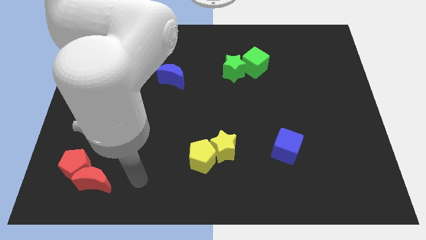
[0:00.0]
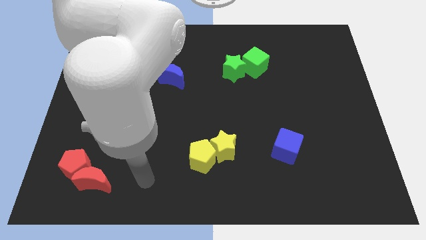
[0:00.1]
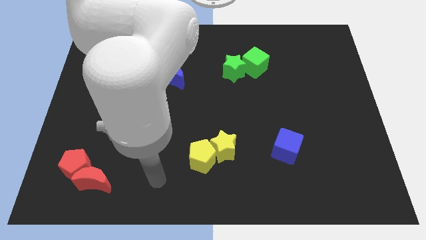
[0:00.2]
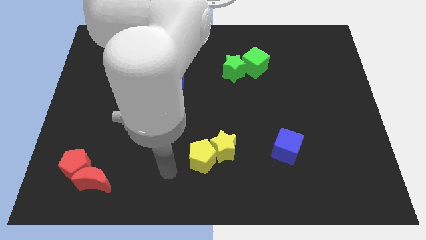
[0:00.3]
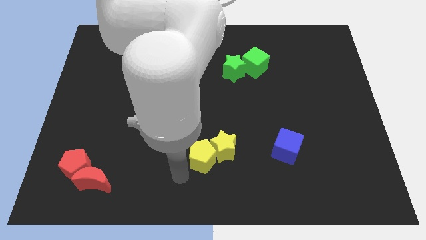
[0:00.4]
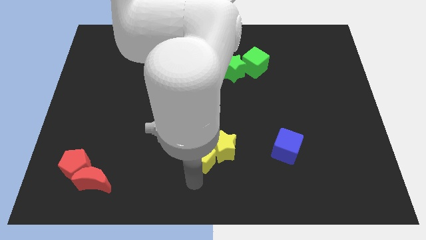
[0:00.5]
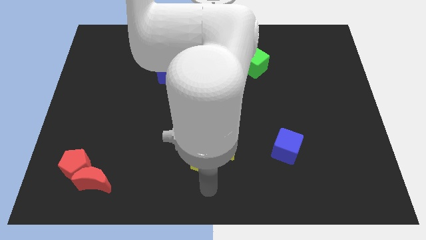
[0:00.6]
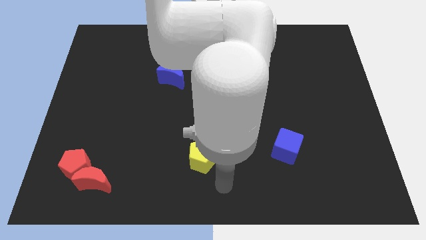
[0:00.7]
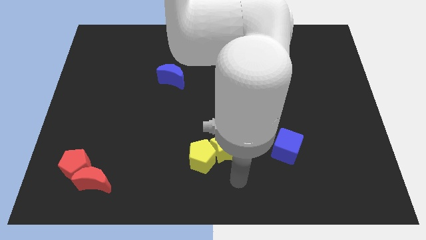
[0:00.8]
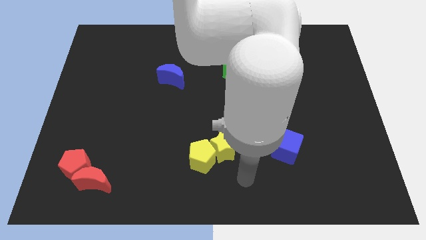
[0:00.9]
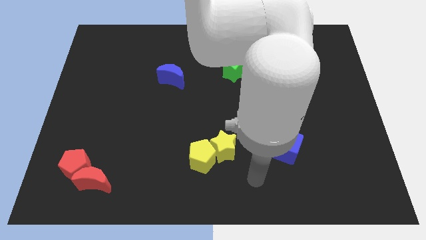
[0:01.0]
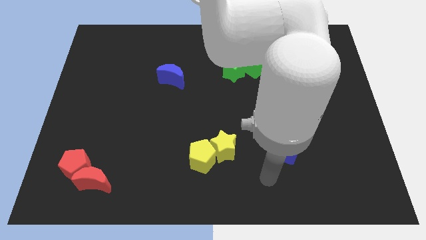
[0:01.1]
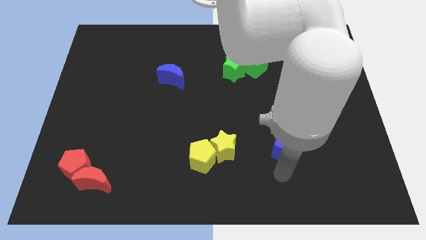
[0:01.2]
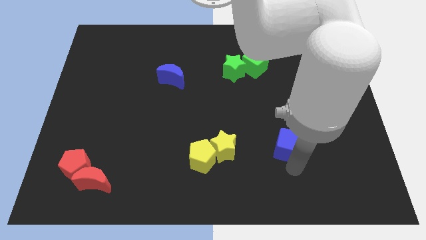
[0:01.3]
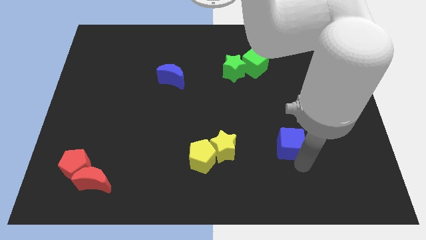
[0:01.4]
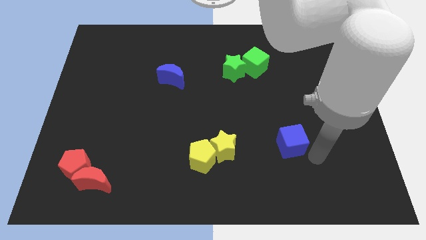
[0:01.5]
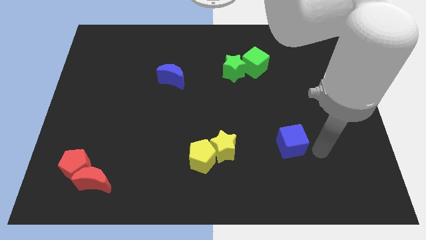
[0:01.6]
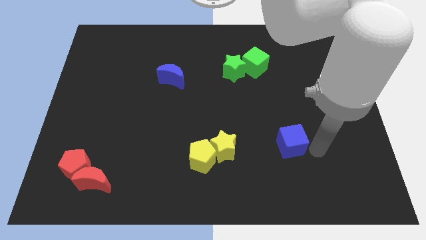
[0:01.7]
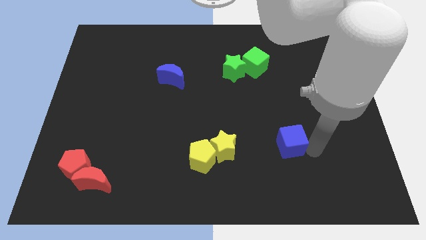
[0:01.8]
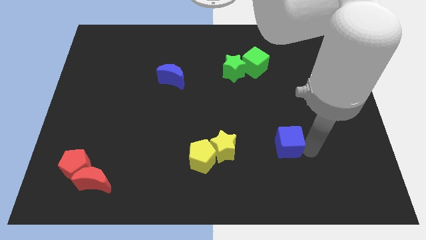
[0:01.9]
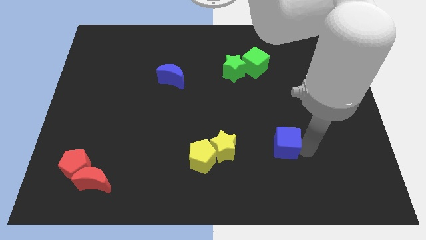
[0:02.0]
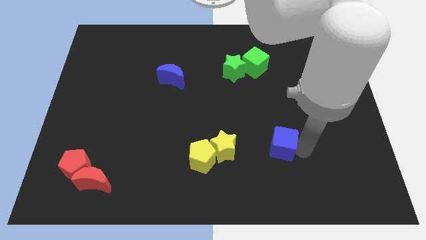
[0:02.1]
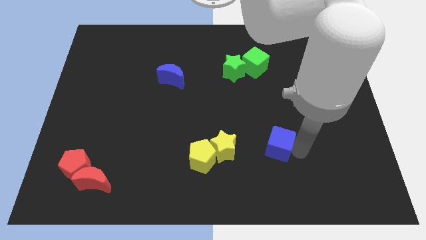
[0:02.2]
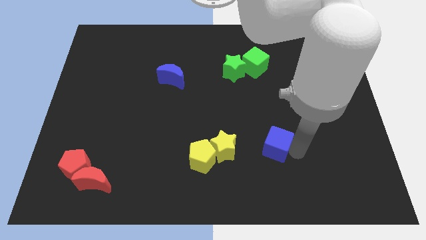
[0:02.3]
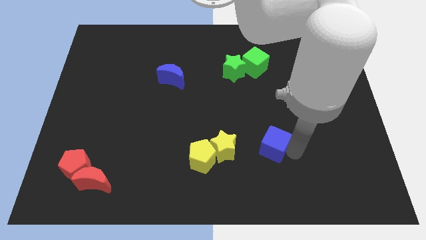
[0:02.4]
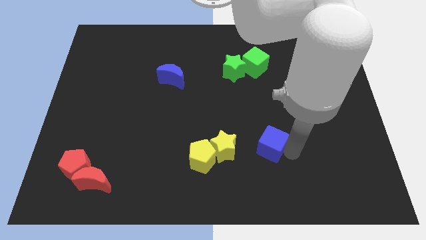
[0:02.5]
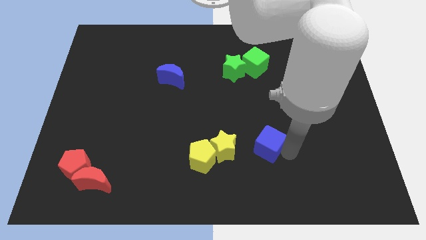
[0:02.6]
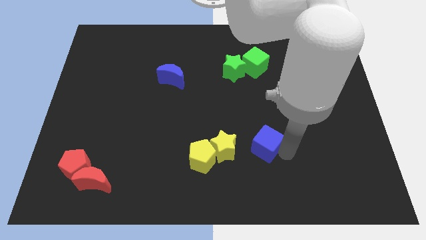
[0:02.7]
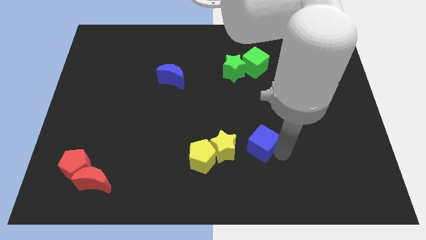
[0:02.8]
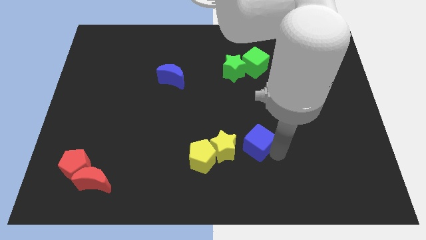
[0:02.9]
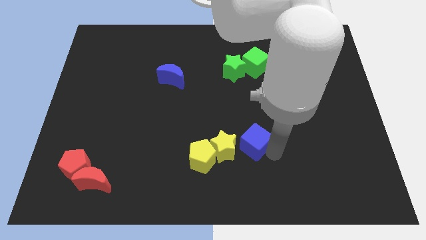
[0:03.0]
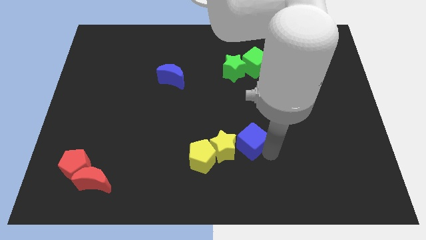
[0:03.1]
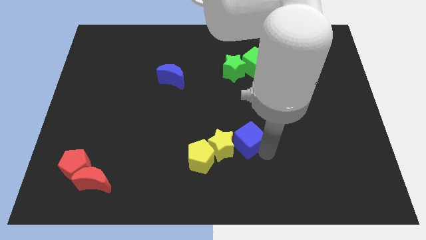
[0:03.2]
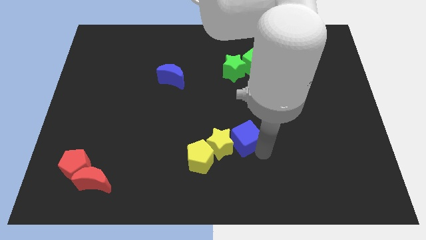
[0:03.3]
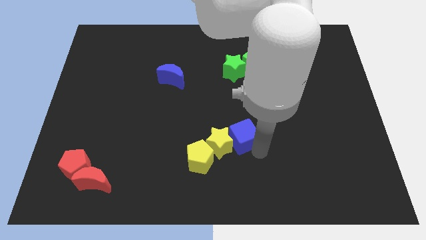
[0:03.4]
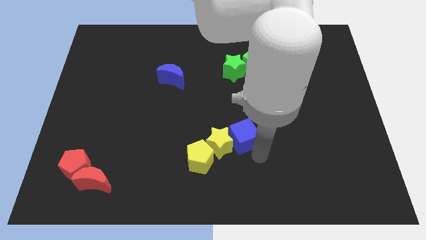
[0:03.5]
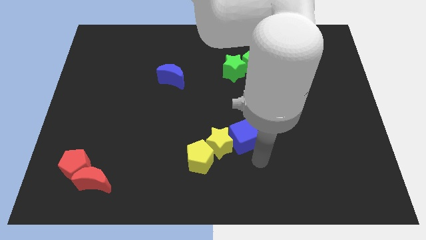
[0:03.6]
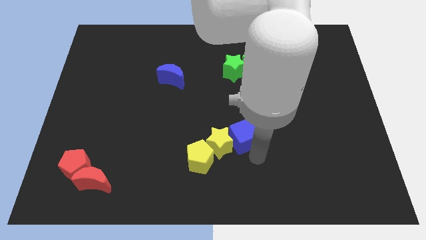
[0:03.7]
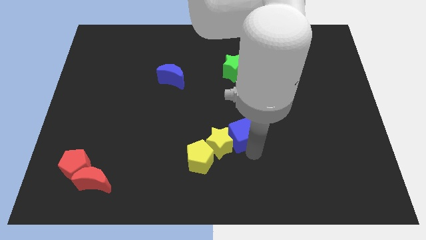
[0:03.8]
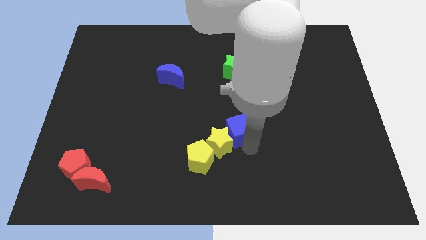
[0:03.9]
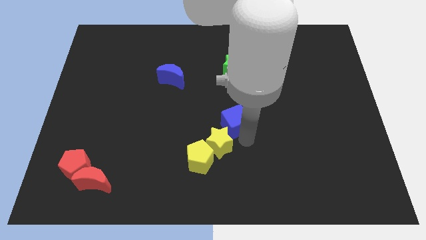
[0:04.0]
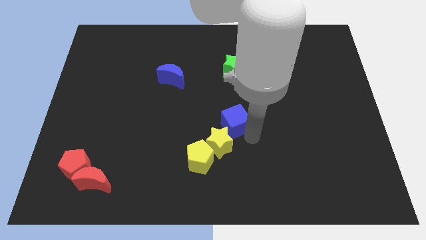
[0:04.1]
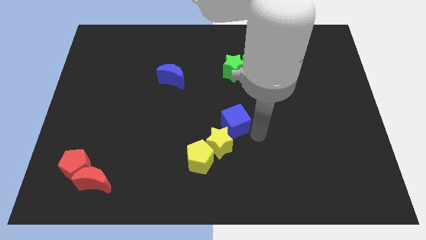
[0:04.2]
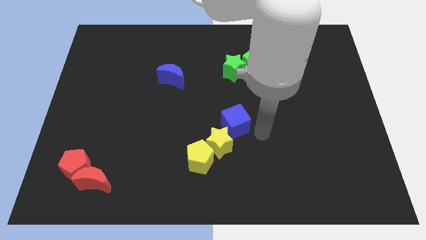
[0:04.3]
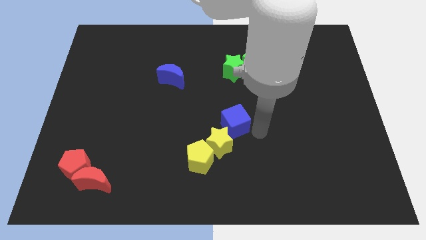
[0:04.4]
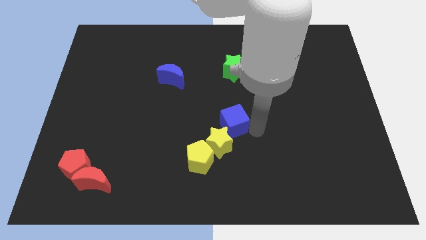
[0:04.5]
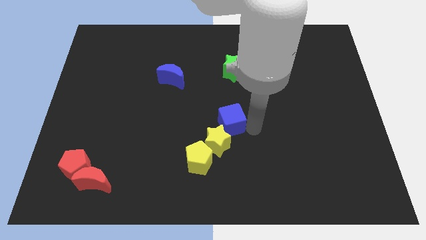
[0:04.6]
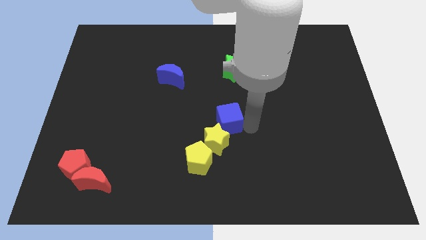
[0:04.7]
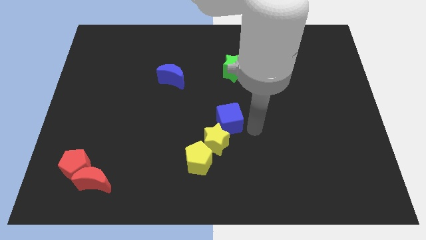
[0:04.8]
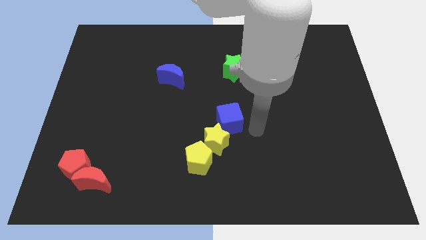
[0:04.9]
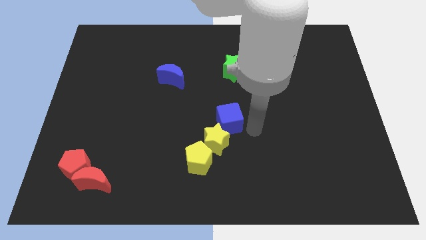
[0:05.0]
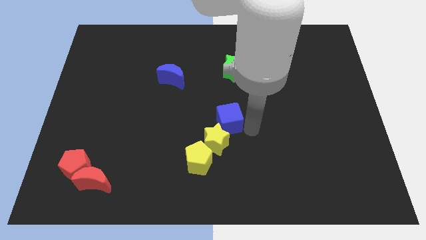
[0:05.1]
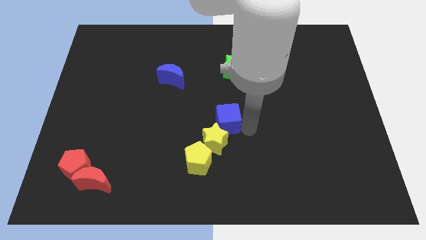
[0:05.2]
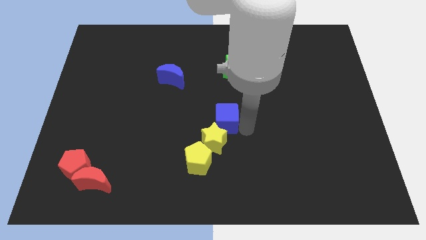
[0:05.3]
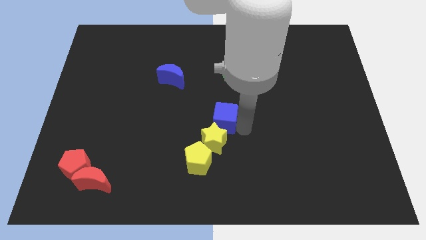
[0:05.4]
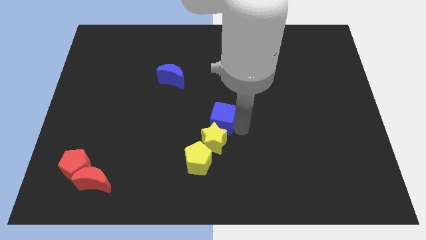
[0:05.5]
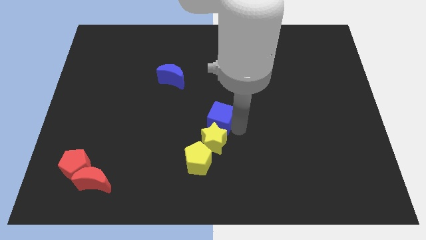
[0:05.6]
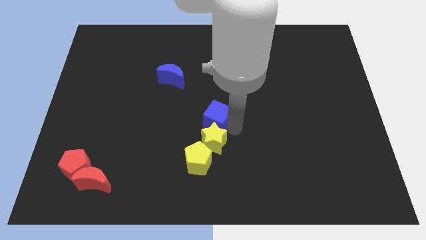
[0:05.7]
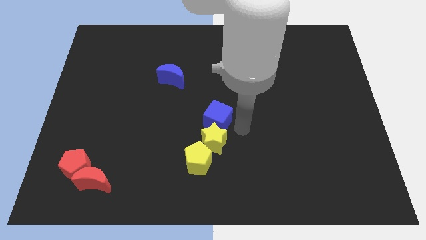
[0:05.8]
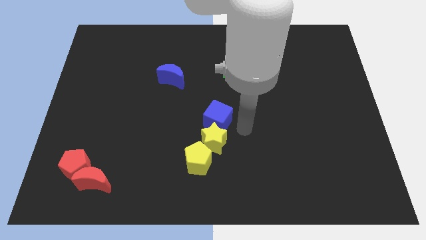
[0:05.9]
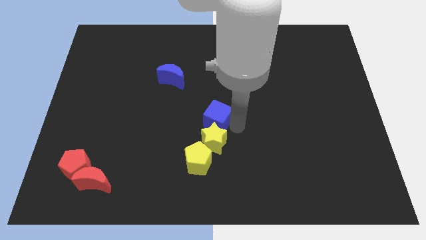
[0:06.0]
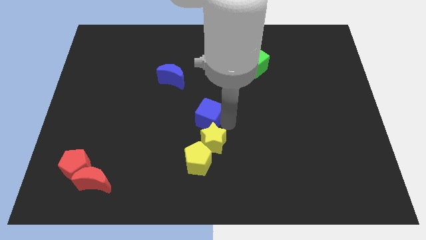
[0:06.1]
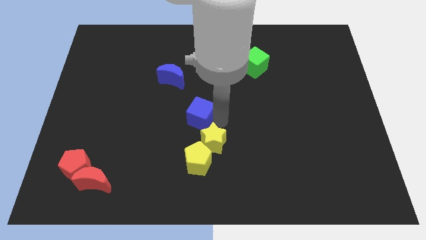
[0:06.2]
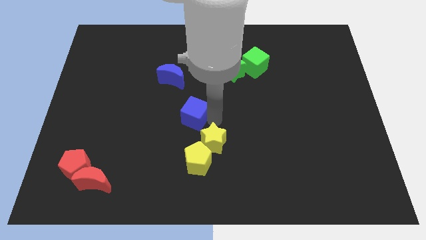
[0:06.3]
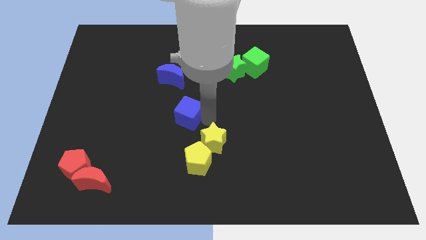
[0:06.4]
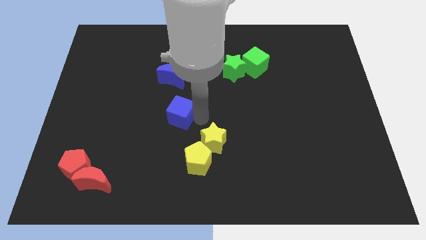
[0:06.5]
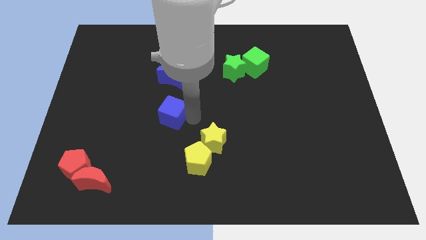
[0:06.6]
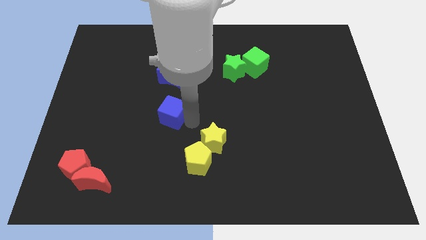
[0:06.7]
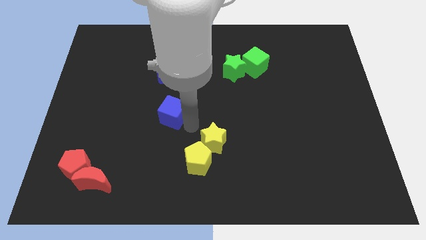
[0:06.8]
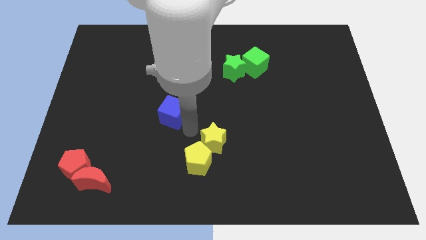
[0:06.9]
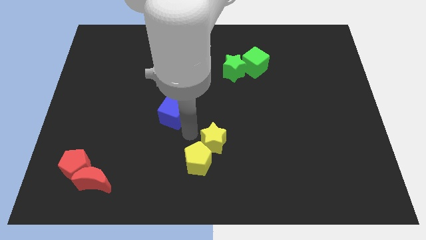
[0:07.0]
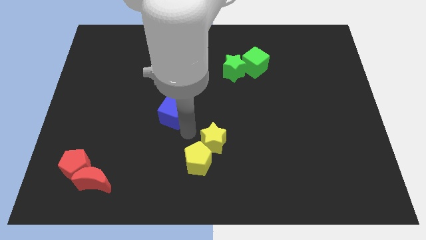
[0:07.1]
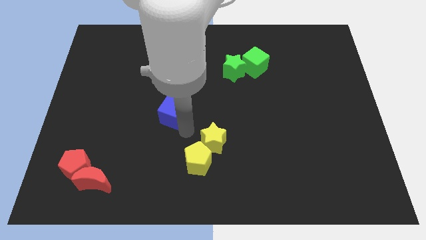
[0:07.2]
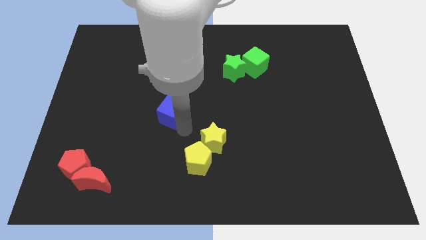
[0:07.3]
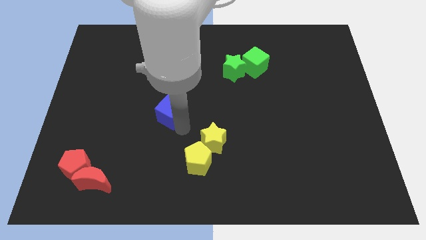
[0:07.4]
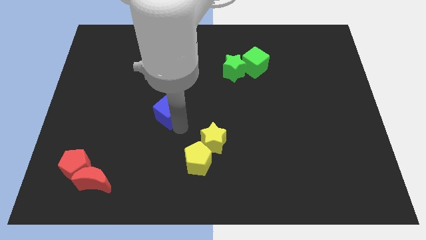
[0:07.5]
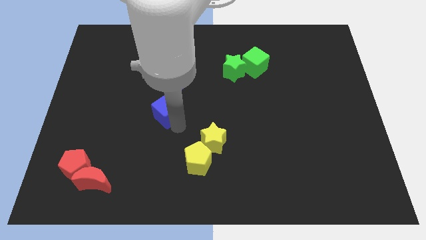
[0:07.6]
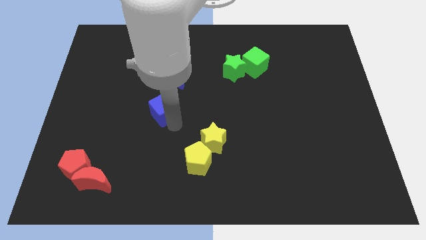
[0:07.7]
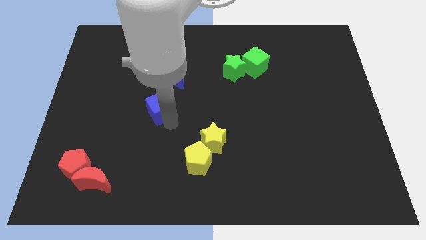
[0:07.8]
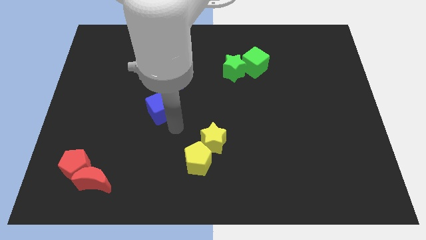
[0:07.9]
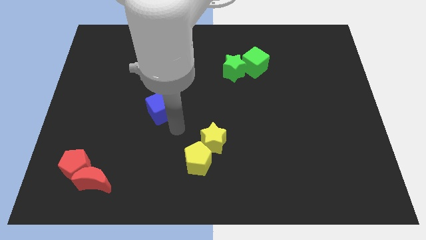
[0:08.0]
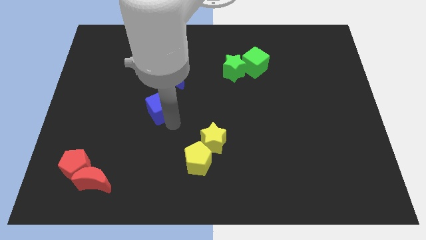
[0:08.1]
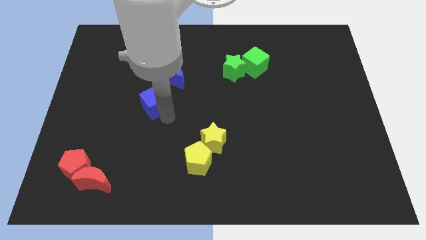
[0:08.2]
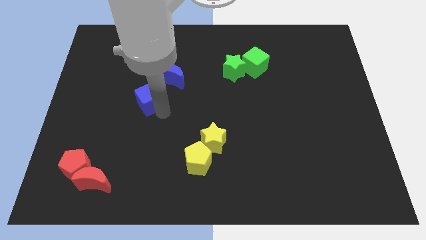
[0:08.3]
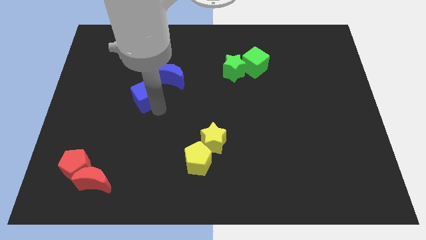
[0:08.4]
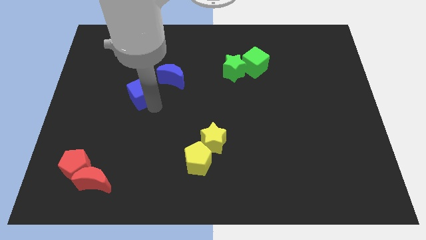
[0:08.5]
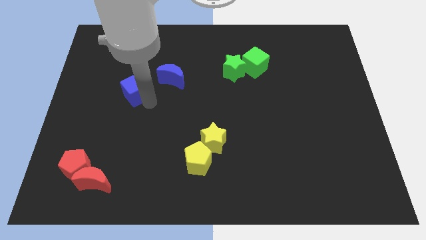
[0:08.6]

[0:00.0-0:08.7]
slide the blue cube to the left side of the blue moon
